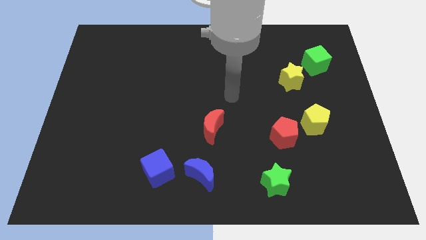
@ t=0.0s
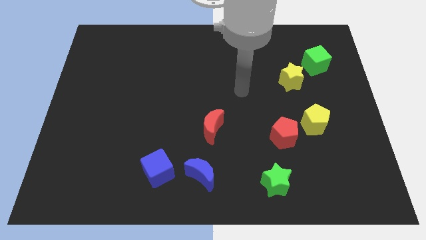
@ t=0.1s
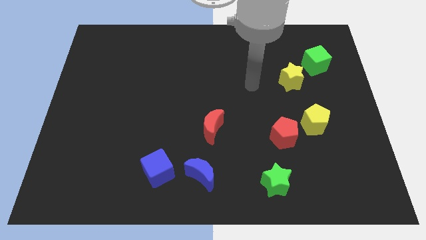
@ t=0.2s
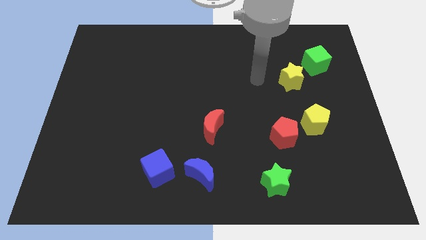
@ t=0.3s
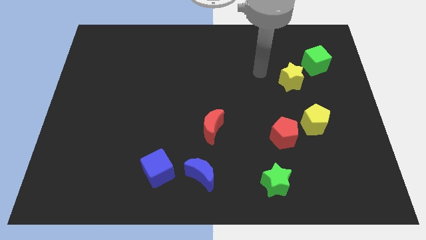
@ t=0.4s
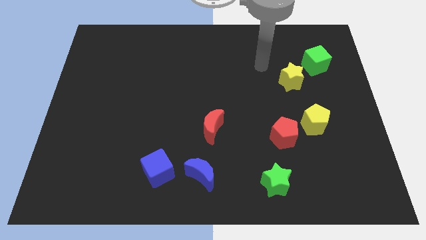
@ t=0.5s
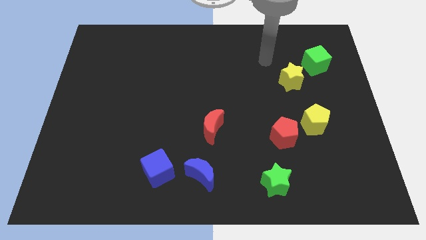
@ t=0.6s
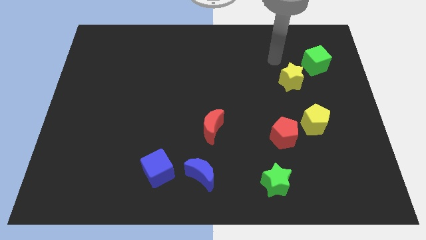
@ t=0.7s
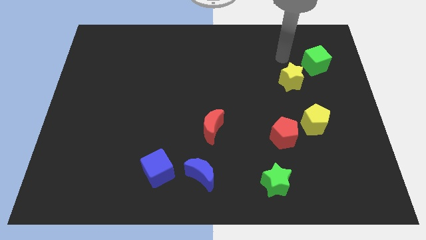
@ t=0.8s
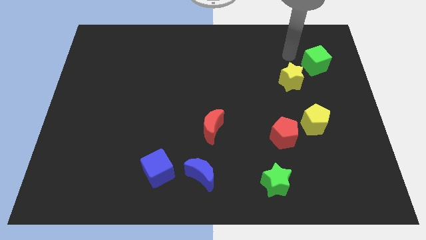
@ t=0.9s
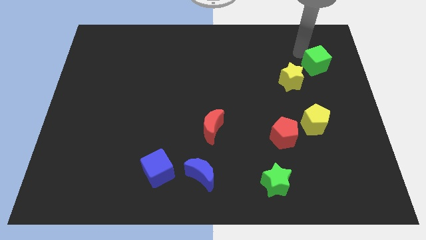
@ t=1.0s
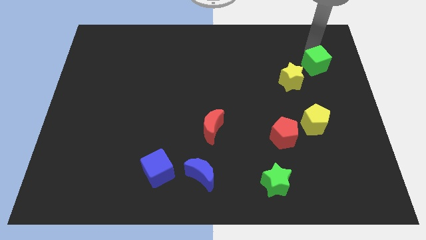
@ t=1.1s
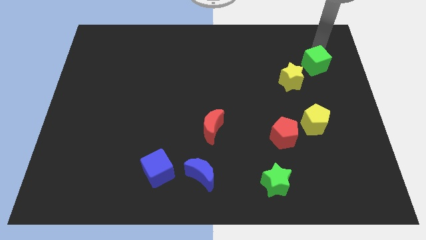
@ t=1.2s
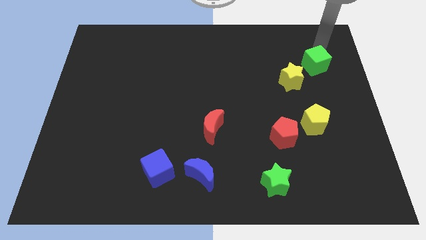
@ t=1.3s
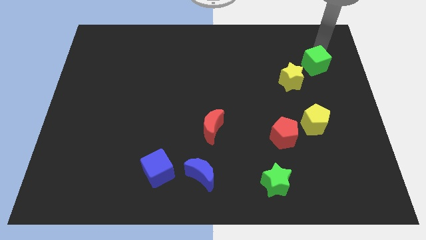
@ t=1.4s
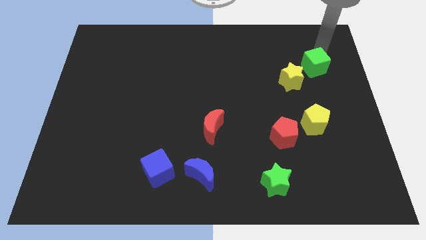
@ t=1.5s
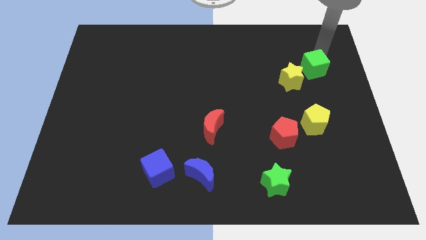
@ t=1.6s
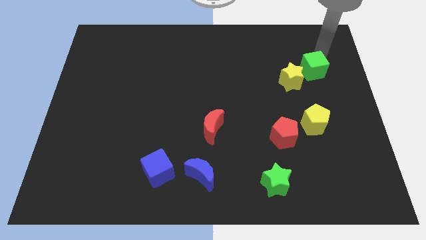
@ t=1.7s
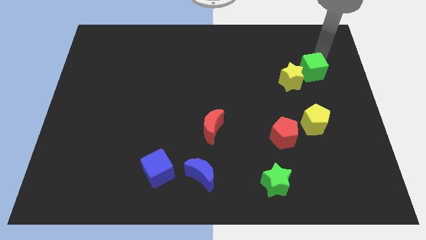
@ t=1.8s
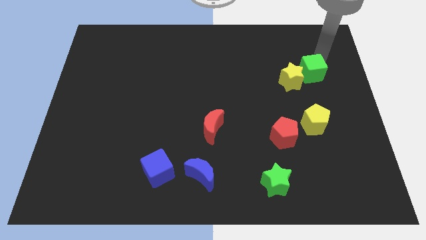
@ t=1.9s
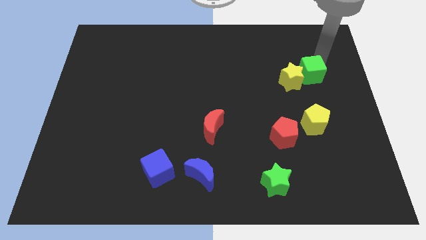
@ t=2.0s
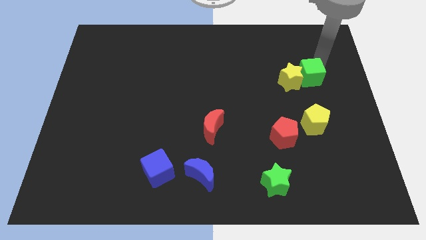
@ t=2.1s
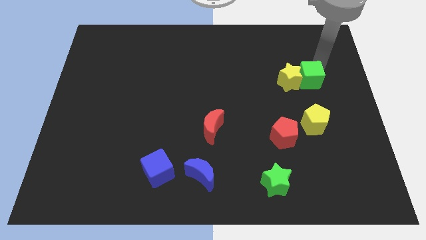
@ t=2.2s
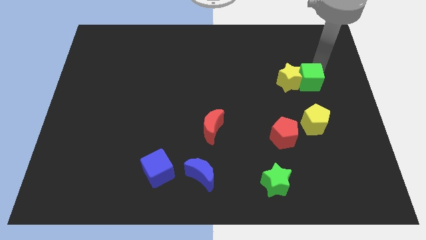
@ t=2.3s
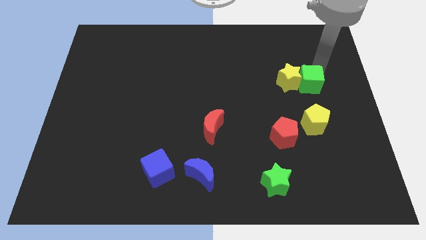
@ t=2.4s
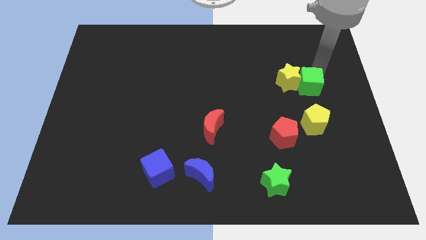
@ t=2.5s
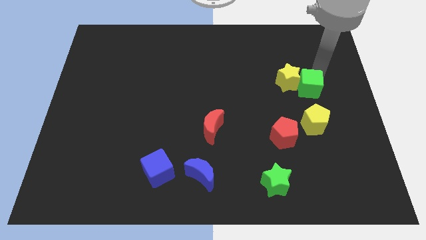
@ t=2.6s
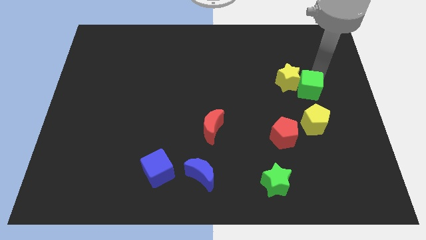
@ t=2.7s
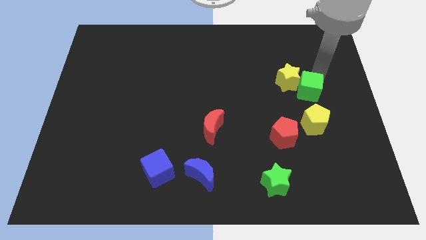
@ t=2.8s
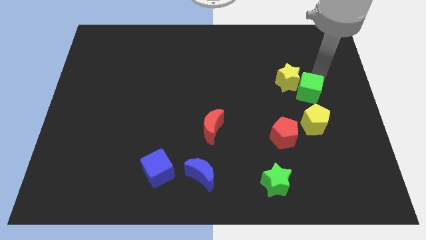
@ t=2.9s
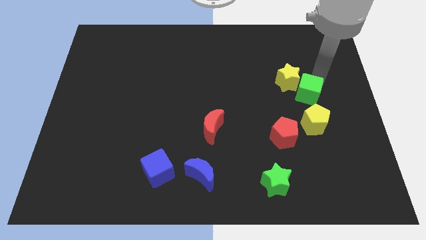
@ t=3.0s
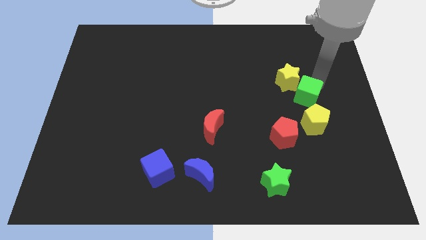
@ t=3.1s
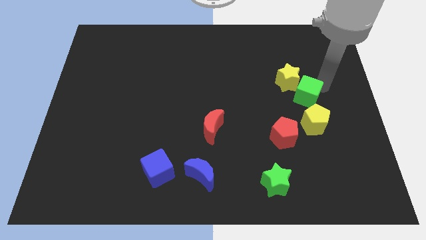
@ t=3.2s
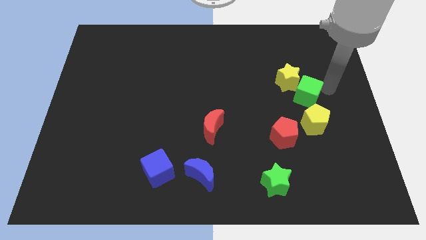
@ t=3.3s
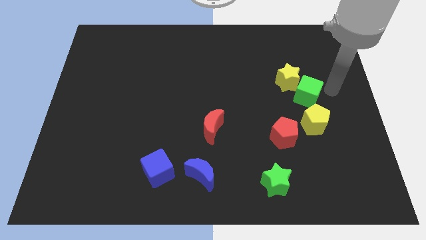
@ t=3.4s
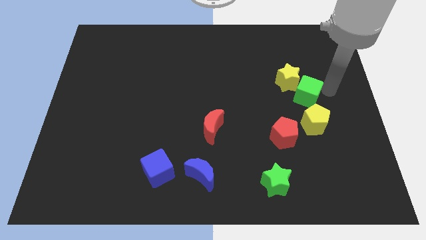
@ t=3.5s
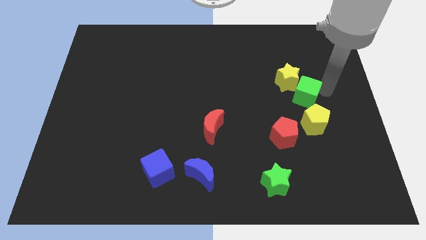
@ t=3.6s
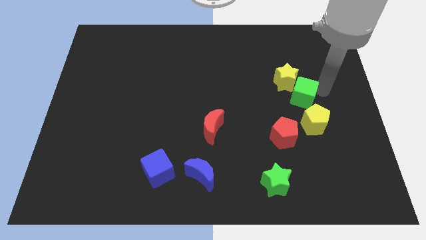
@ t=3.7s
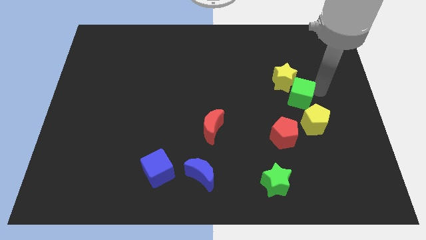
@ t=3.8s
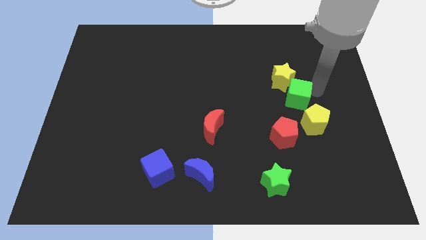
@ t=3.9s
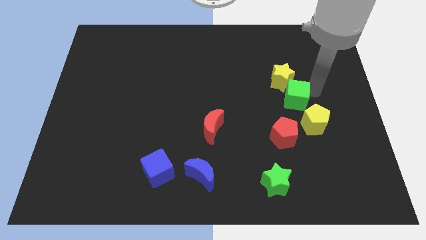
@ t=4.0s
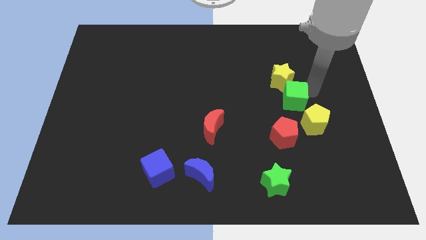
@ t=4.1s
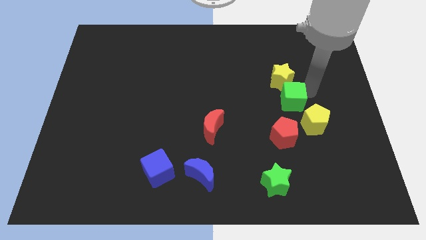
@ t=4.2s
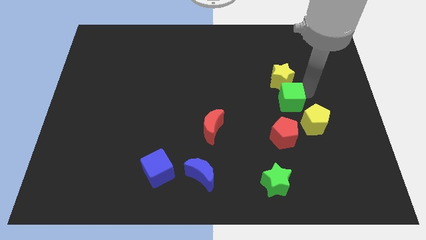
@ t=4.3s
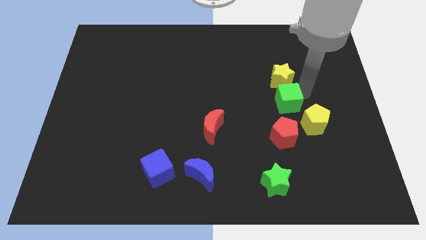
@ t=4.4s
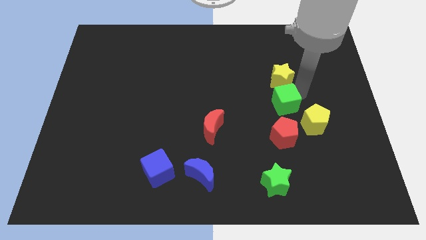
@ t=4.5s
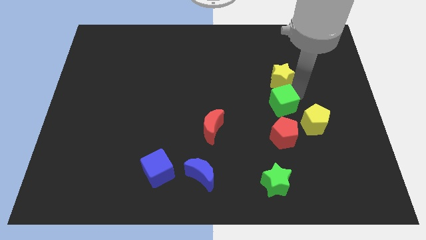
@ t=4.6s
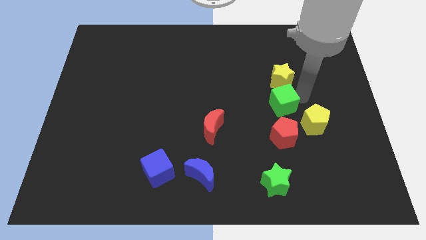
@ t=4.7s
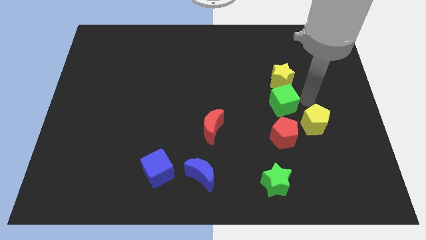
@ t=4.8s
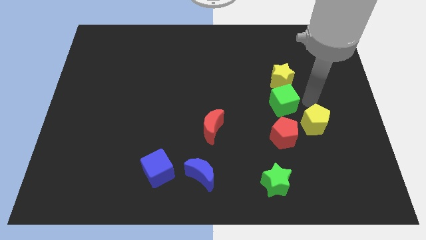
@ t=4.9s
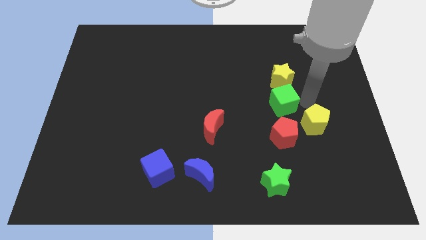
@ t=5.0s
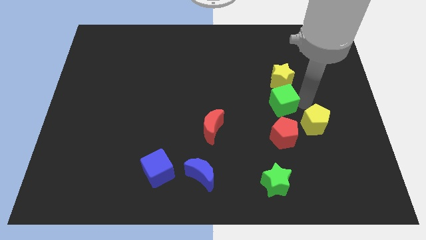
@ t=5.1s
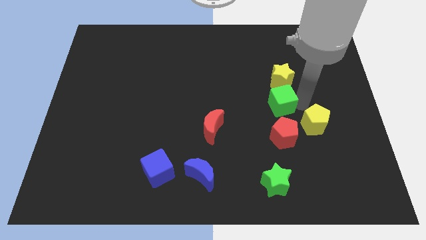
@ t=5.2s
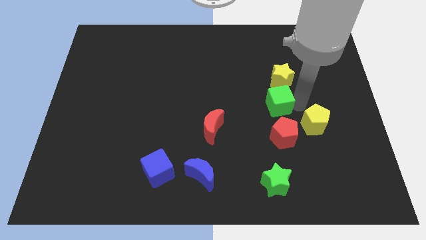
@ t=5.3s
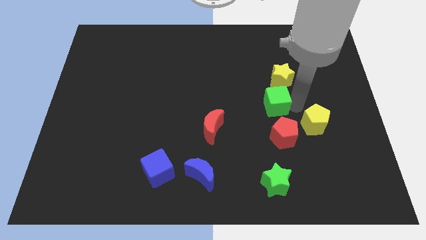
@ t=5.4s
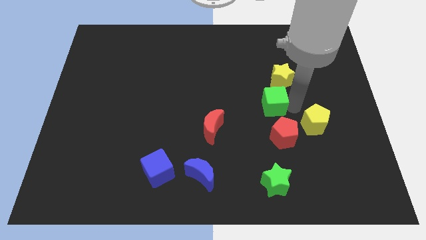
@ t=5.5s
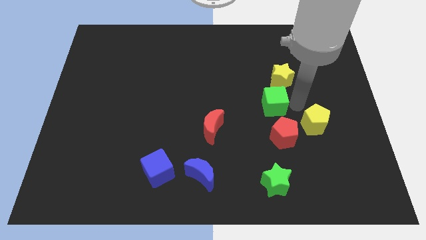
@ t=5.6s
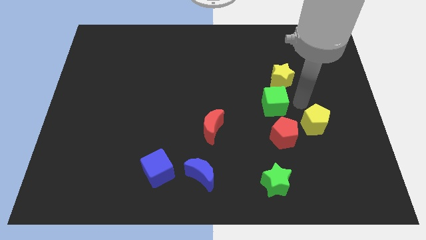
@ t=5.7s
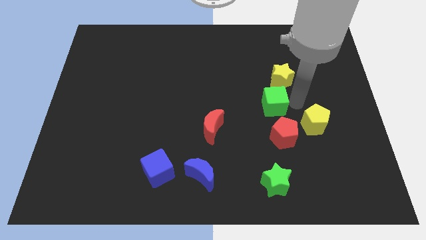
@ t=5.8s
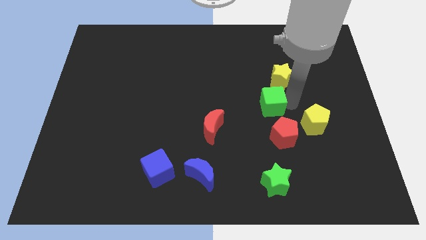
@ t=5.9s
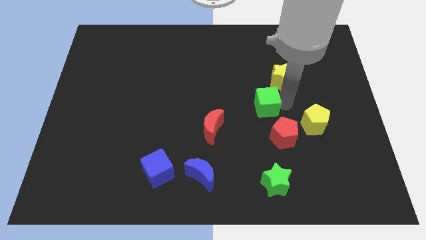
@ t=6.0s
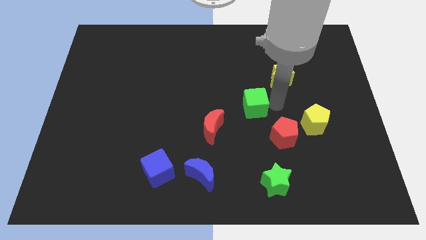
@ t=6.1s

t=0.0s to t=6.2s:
move the green cube to the top right side of the red moon
